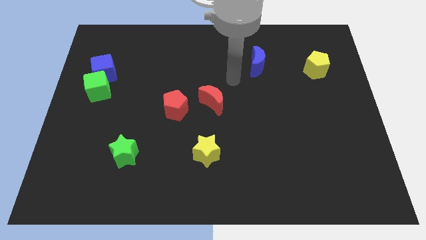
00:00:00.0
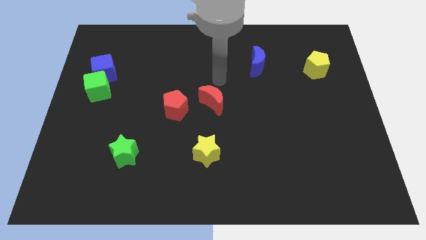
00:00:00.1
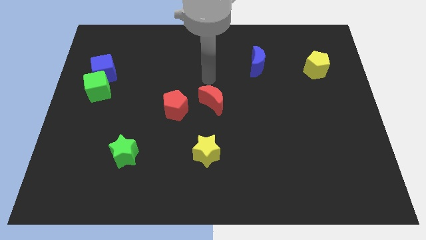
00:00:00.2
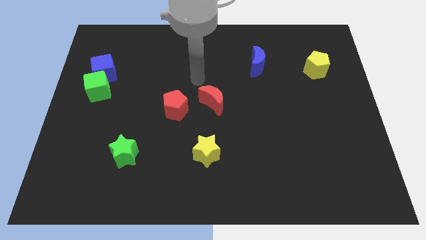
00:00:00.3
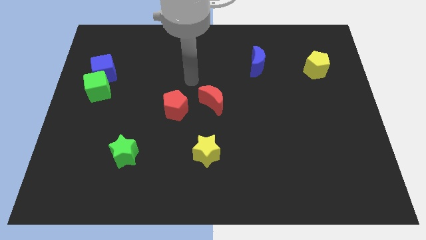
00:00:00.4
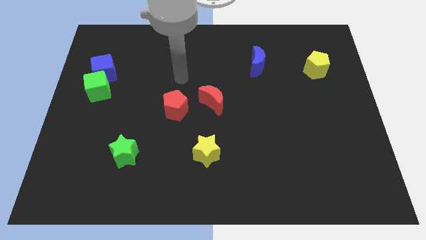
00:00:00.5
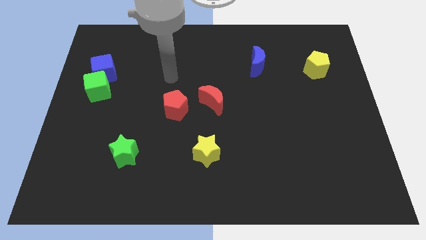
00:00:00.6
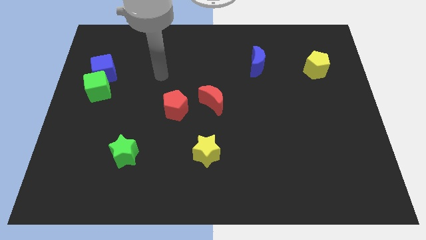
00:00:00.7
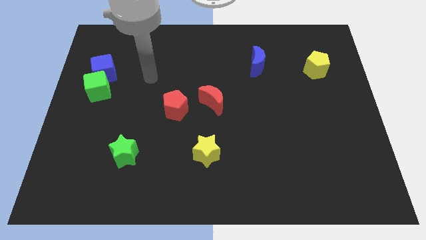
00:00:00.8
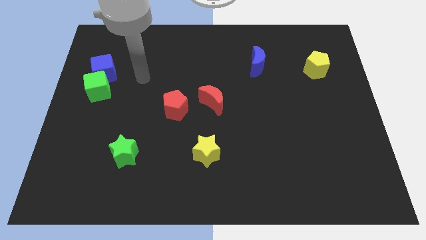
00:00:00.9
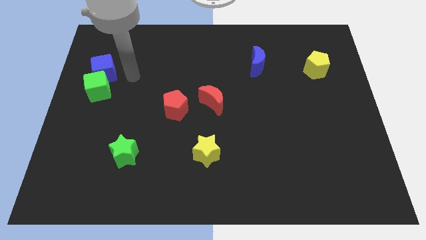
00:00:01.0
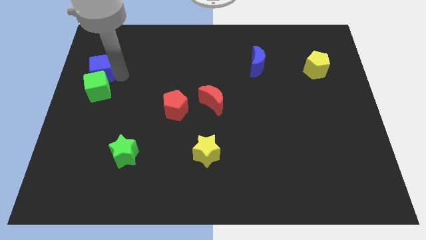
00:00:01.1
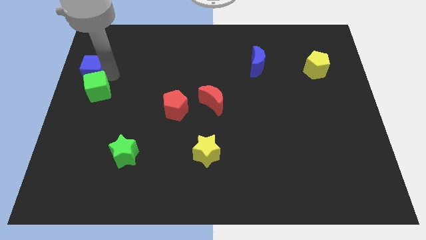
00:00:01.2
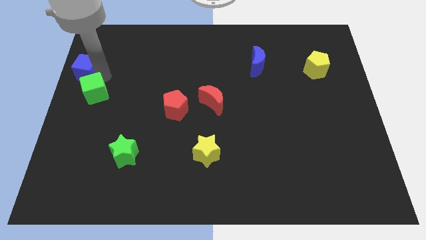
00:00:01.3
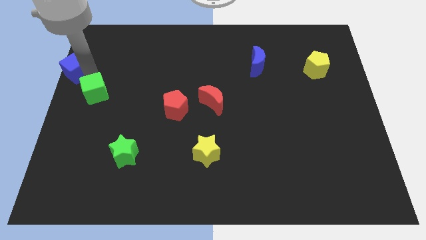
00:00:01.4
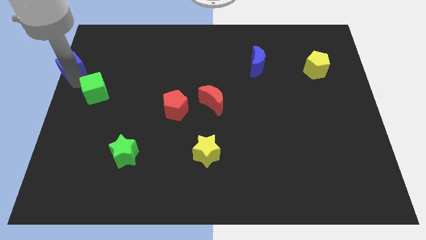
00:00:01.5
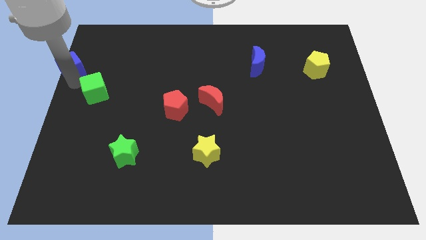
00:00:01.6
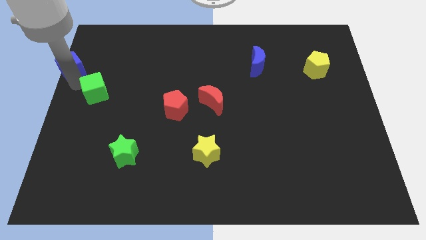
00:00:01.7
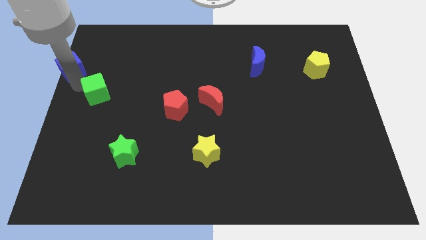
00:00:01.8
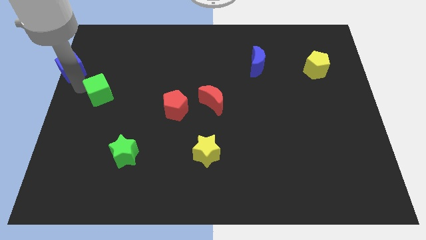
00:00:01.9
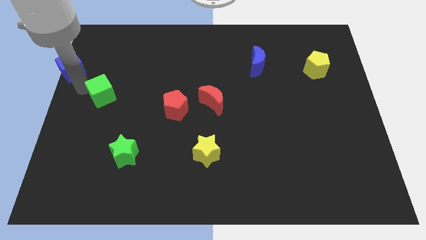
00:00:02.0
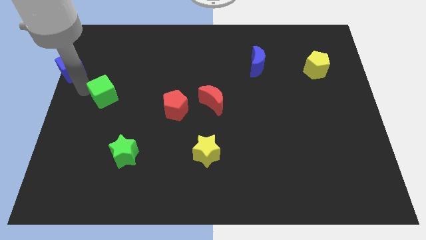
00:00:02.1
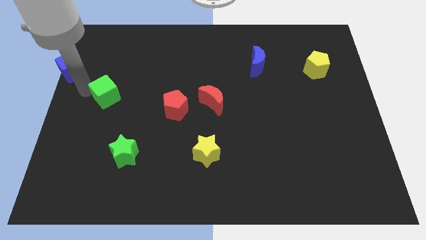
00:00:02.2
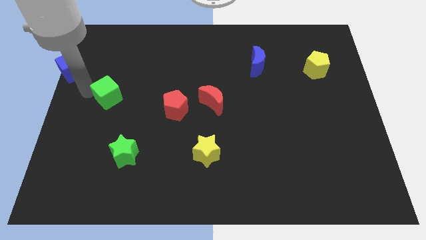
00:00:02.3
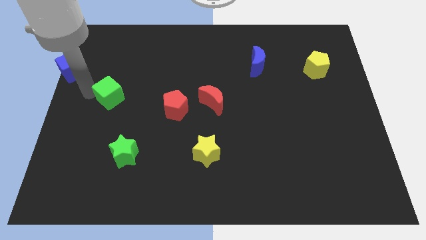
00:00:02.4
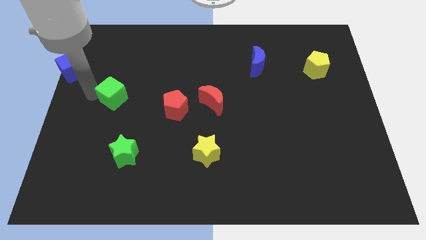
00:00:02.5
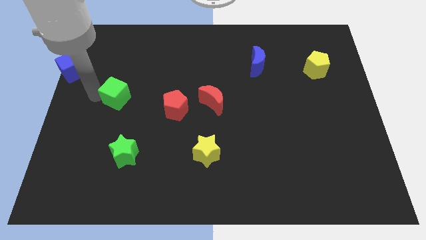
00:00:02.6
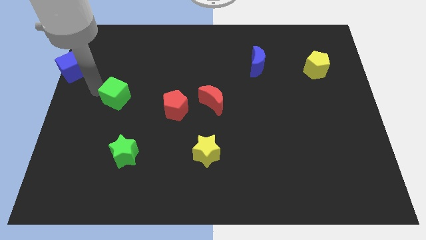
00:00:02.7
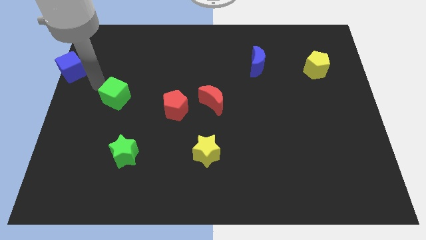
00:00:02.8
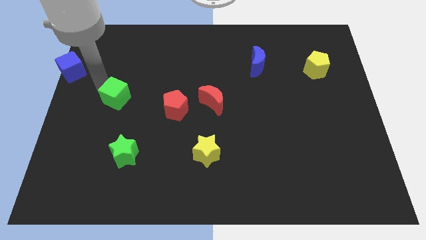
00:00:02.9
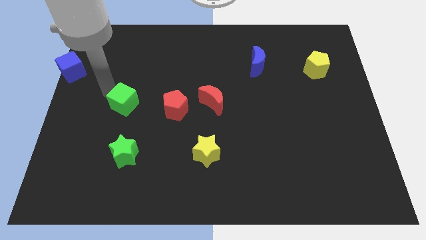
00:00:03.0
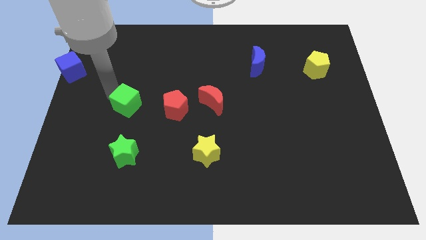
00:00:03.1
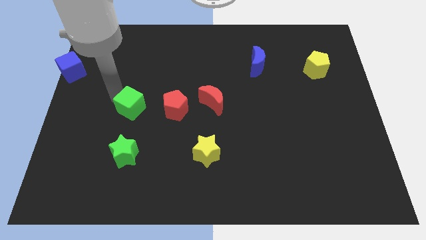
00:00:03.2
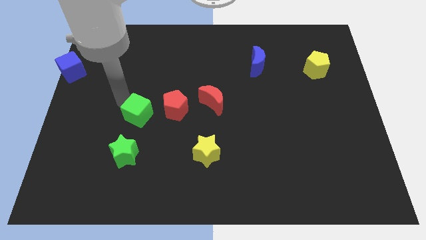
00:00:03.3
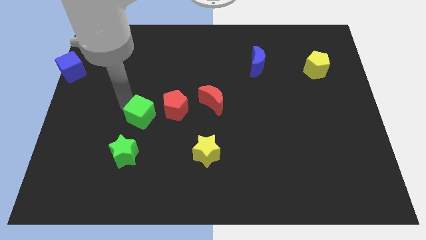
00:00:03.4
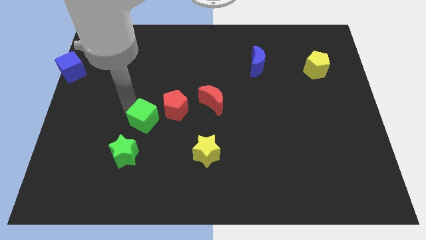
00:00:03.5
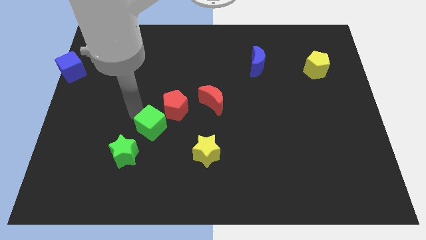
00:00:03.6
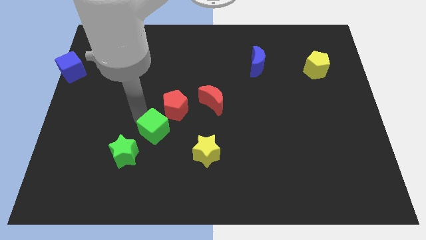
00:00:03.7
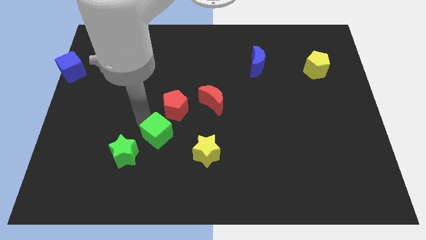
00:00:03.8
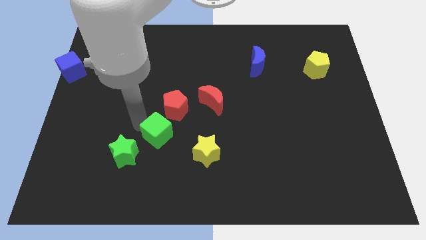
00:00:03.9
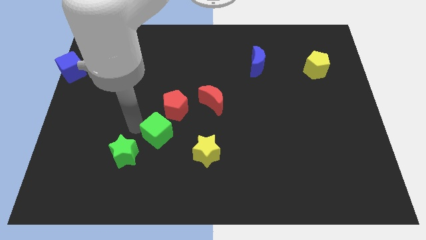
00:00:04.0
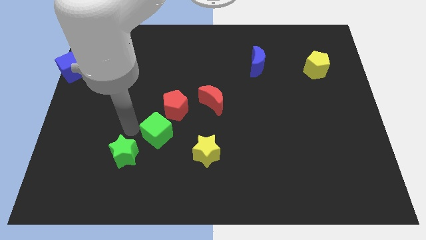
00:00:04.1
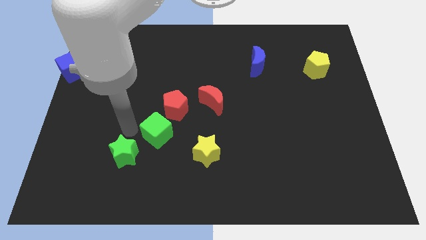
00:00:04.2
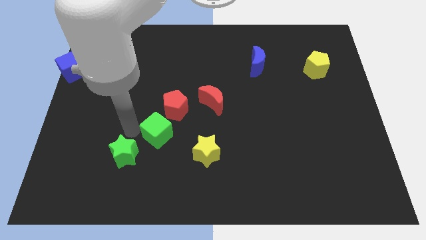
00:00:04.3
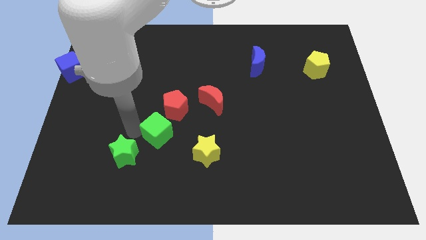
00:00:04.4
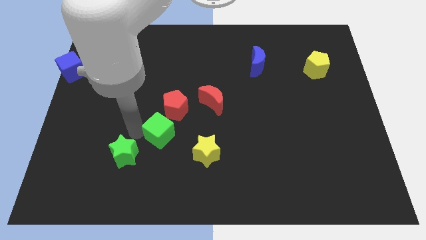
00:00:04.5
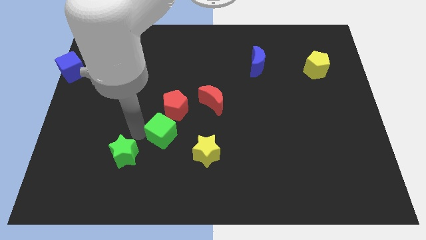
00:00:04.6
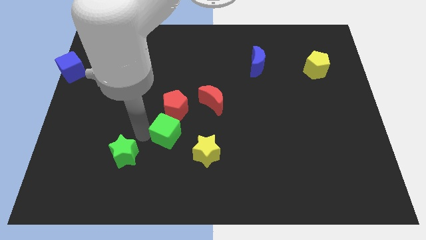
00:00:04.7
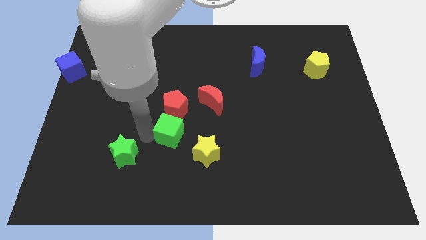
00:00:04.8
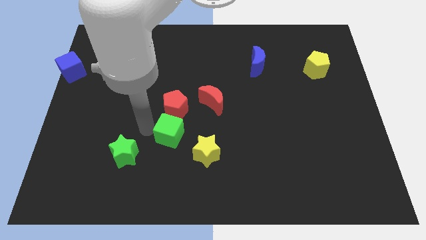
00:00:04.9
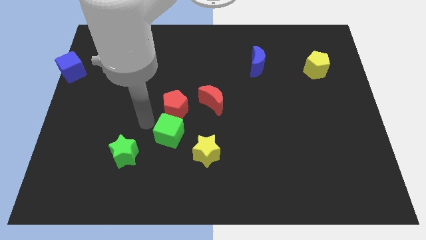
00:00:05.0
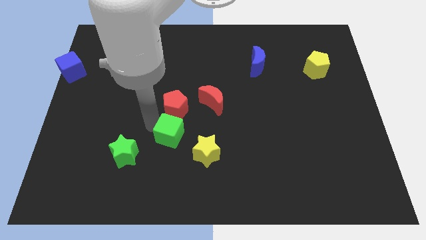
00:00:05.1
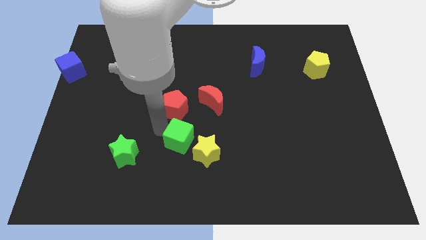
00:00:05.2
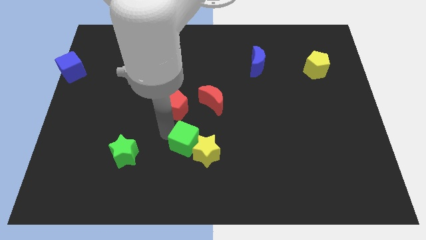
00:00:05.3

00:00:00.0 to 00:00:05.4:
push the green cube next to the yellow star

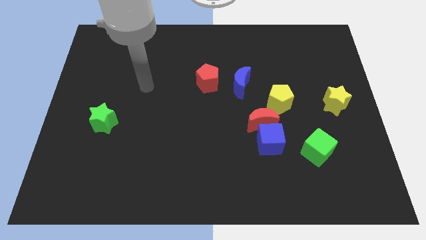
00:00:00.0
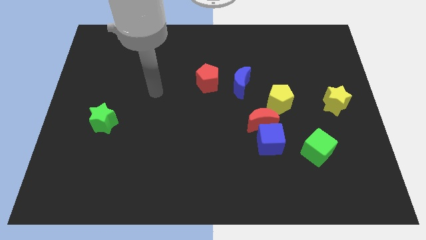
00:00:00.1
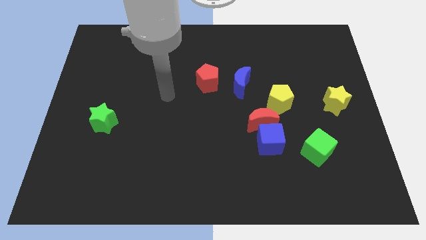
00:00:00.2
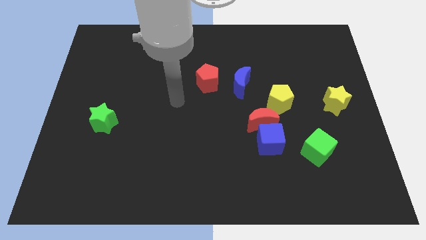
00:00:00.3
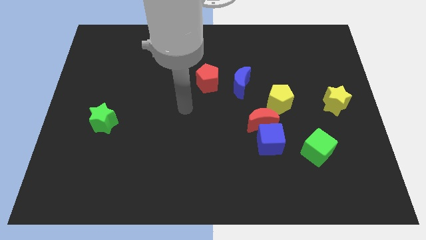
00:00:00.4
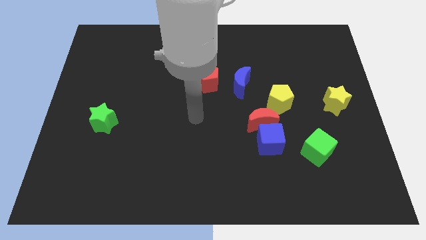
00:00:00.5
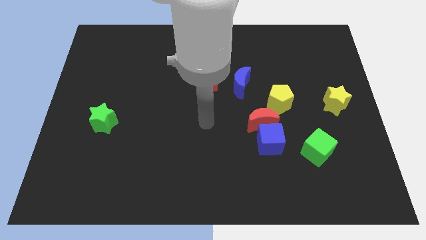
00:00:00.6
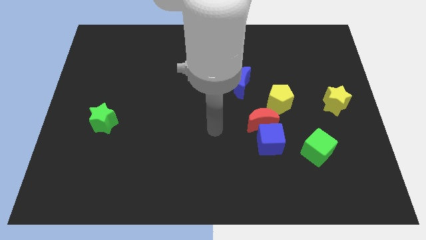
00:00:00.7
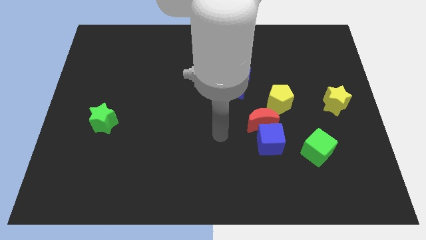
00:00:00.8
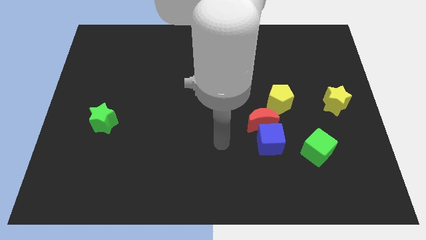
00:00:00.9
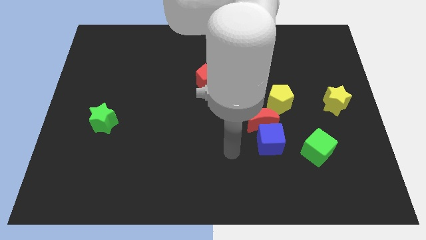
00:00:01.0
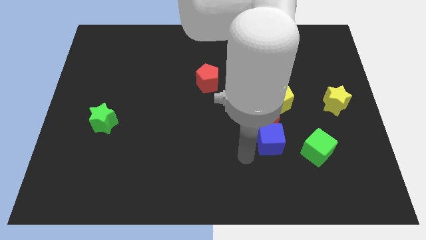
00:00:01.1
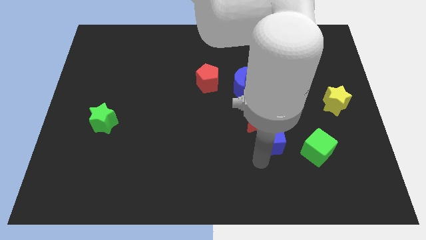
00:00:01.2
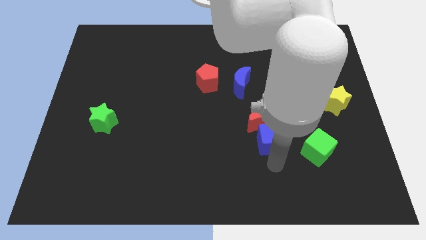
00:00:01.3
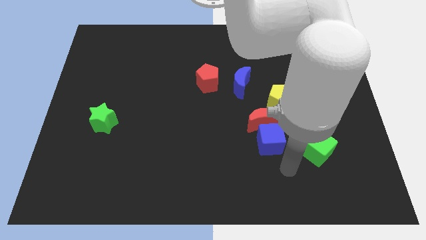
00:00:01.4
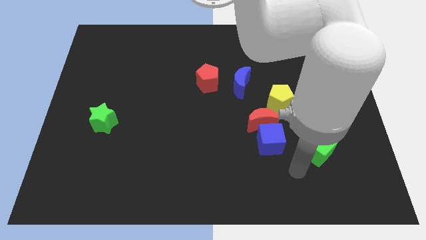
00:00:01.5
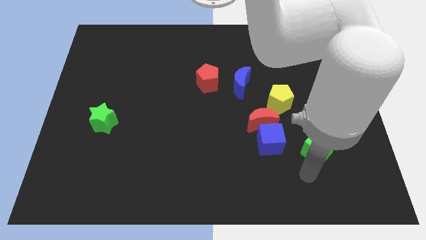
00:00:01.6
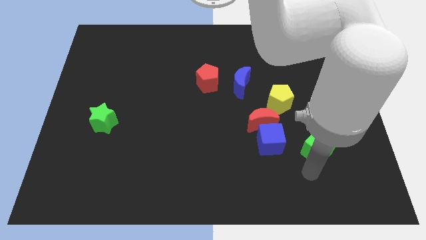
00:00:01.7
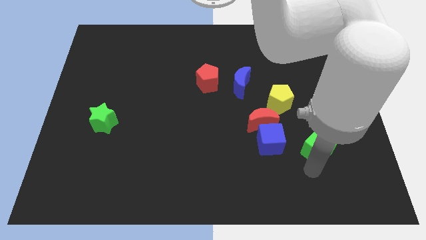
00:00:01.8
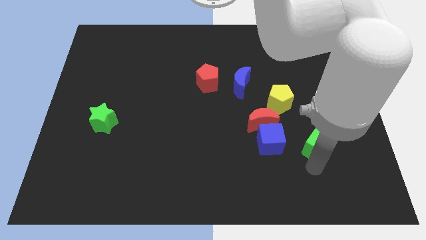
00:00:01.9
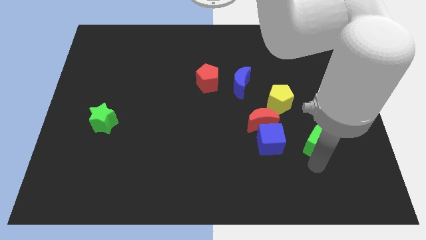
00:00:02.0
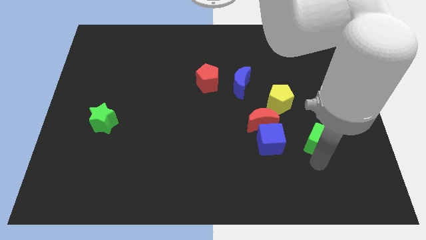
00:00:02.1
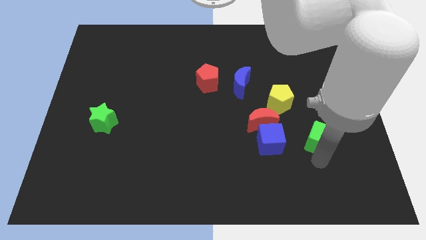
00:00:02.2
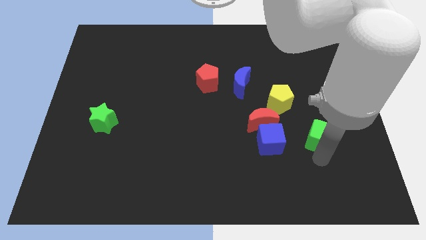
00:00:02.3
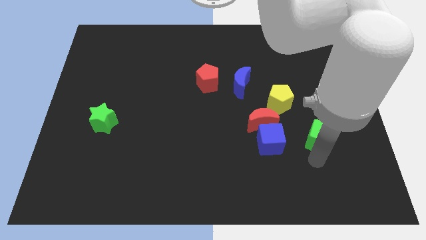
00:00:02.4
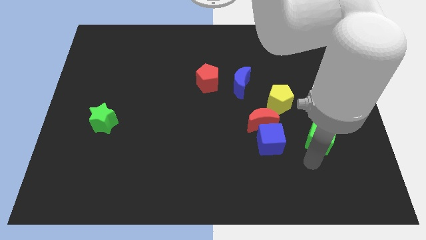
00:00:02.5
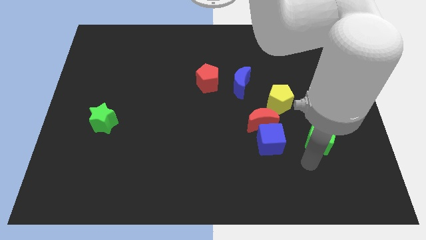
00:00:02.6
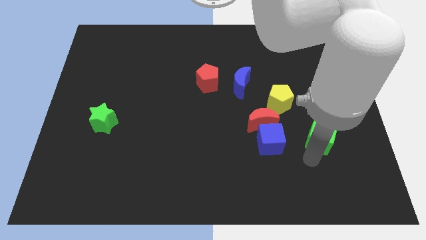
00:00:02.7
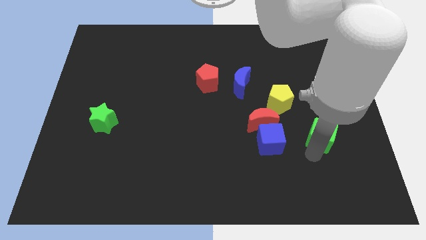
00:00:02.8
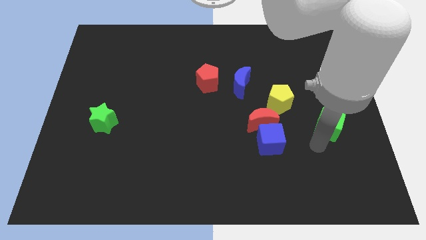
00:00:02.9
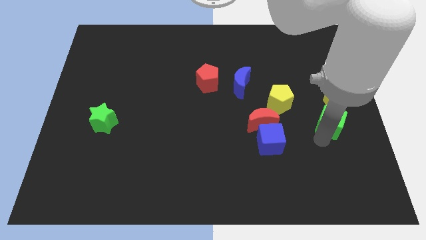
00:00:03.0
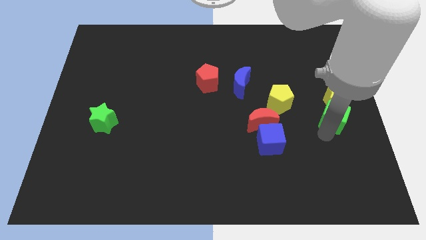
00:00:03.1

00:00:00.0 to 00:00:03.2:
move the green cube towards the yellow star
